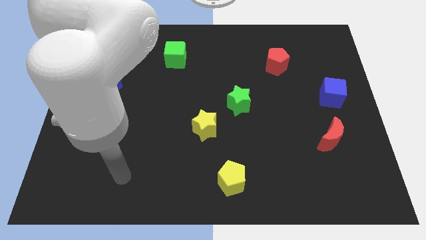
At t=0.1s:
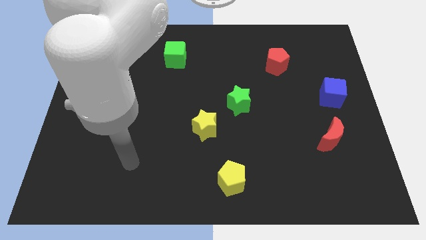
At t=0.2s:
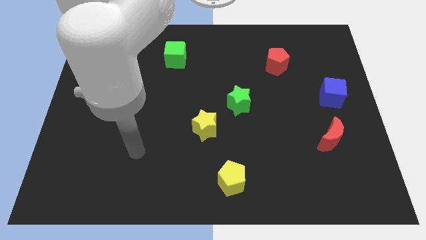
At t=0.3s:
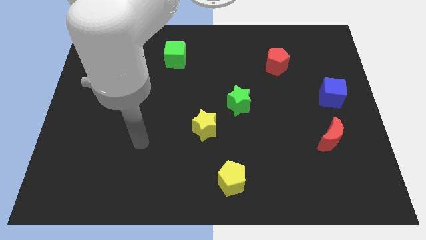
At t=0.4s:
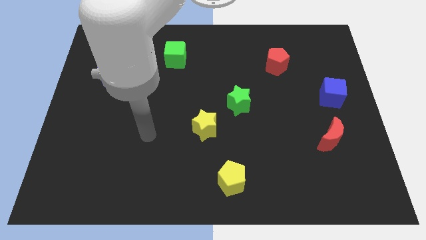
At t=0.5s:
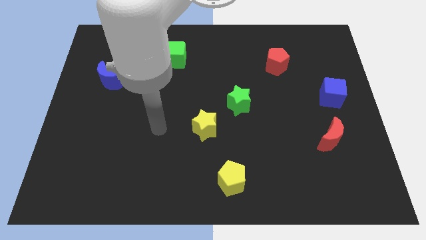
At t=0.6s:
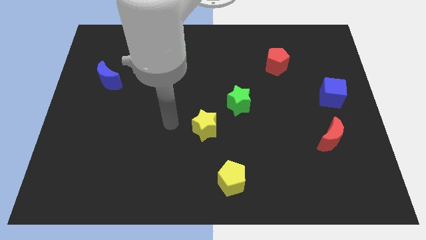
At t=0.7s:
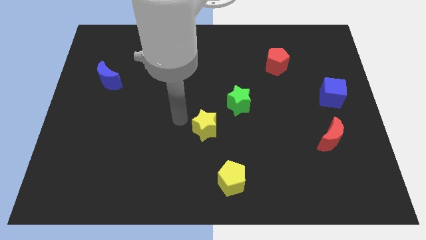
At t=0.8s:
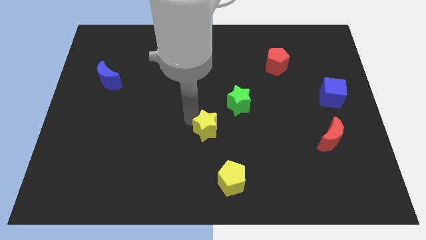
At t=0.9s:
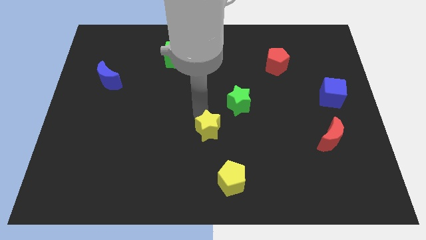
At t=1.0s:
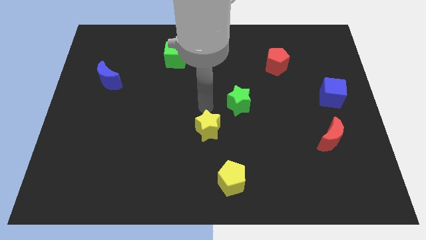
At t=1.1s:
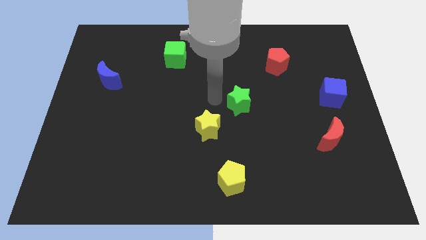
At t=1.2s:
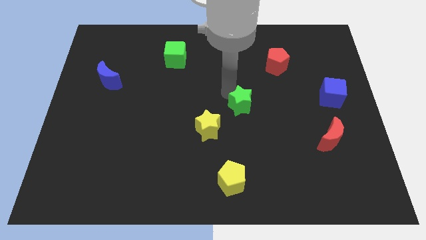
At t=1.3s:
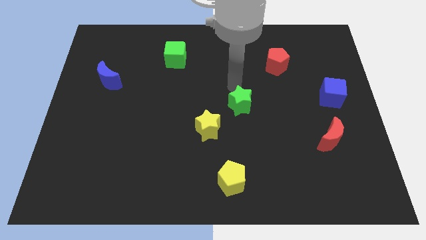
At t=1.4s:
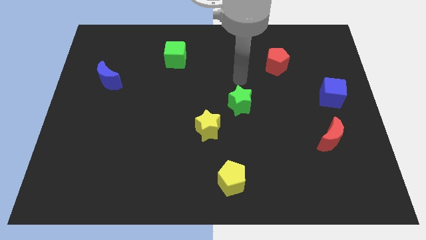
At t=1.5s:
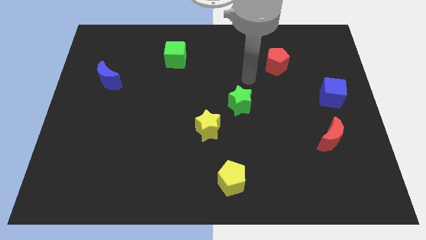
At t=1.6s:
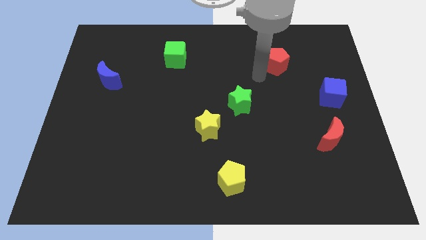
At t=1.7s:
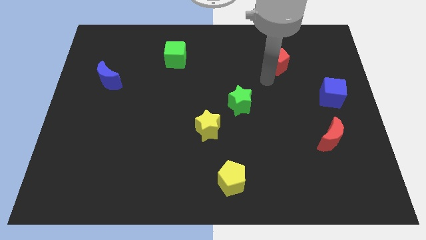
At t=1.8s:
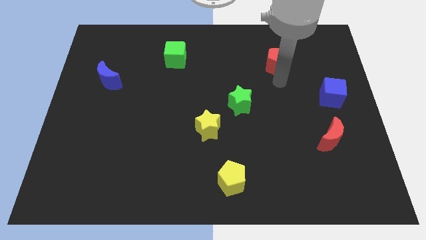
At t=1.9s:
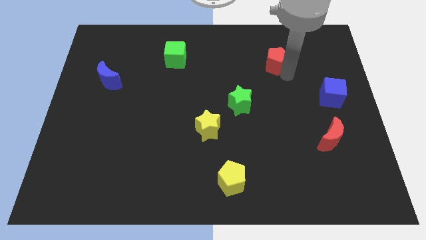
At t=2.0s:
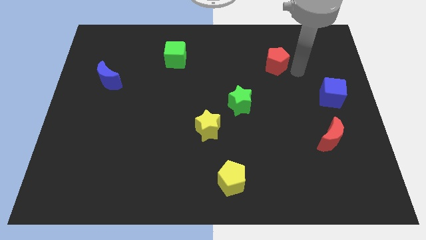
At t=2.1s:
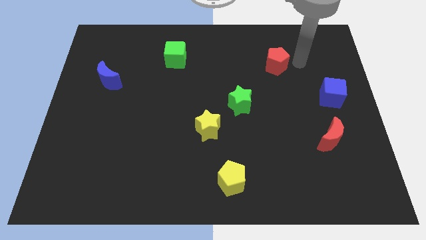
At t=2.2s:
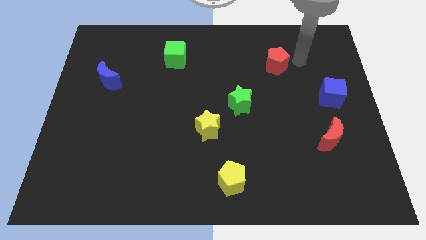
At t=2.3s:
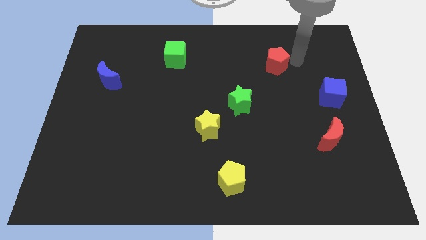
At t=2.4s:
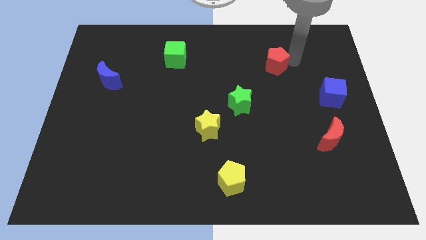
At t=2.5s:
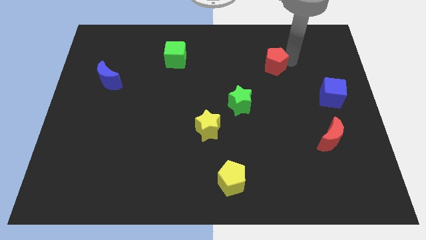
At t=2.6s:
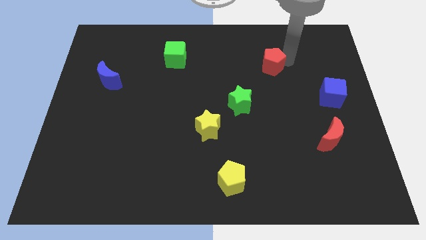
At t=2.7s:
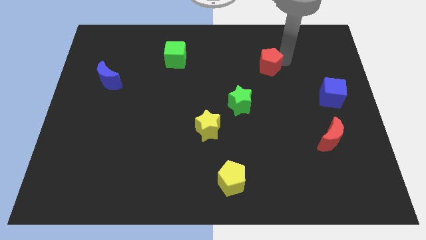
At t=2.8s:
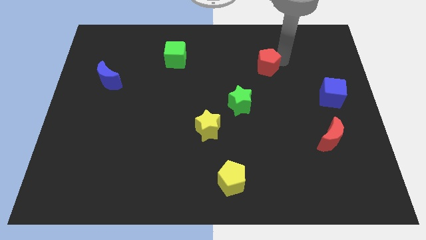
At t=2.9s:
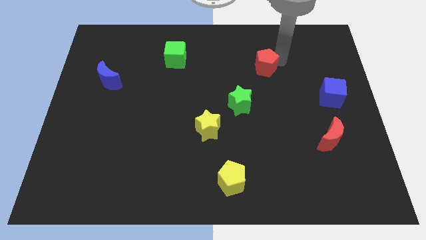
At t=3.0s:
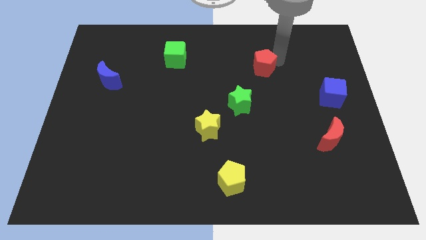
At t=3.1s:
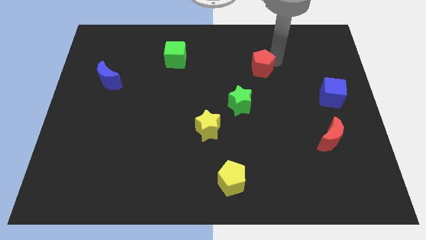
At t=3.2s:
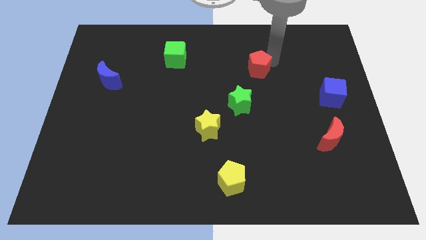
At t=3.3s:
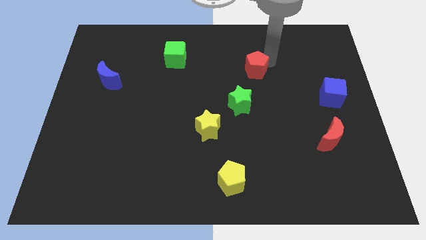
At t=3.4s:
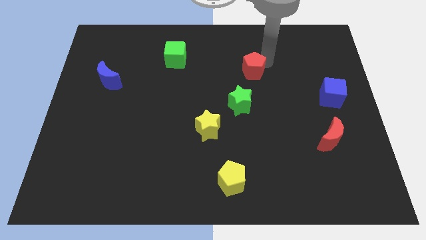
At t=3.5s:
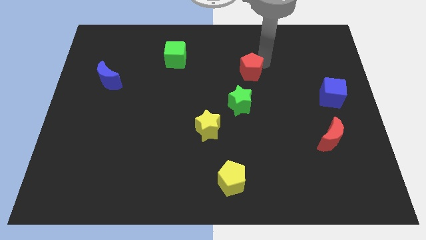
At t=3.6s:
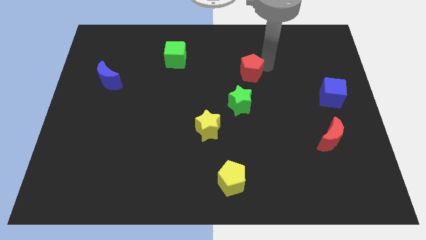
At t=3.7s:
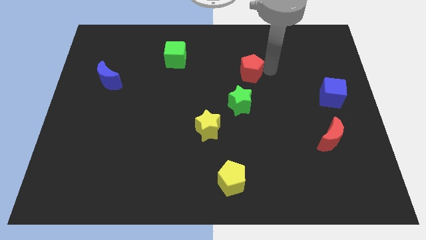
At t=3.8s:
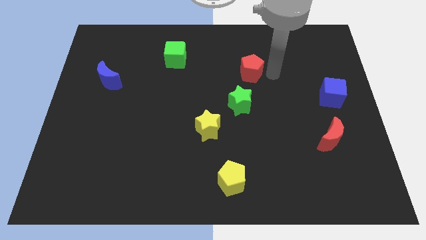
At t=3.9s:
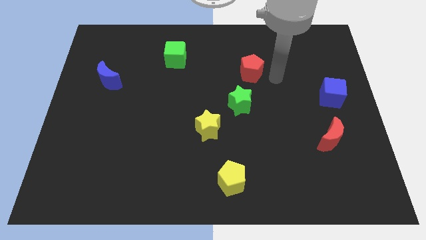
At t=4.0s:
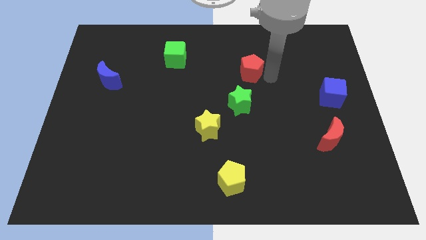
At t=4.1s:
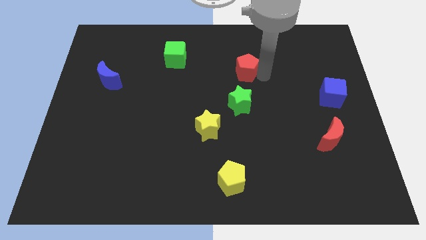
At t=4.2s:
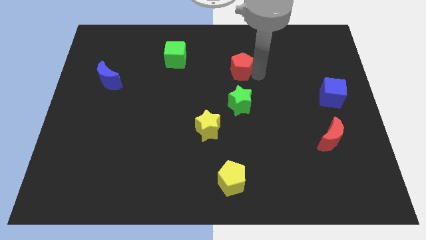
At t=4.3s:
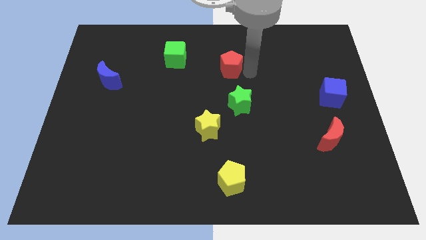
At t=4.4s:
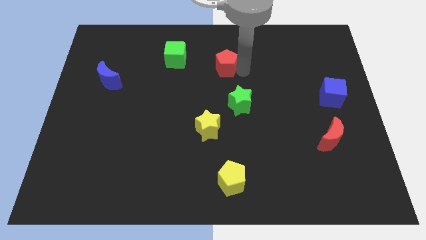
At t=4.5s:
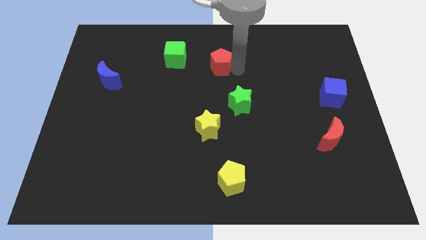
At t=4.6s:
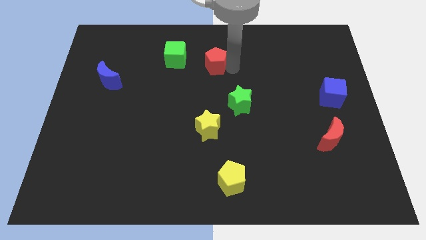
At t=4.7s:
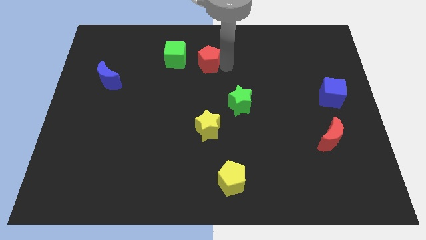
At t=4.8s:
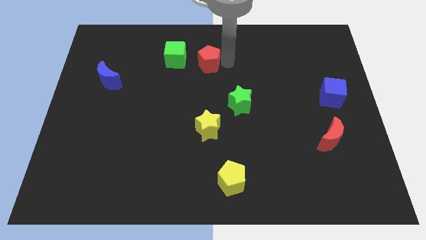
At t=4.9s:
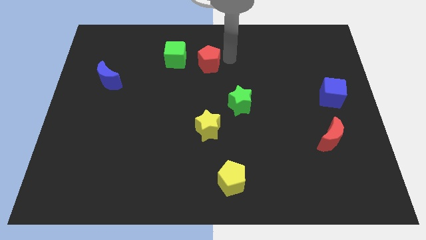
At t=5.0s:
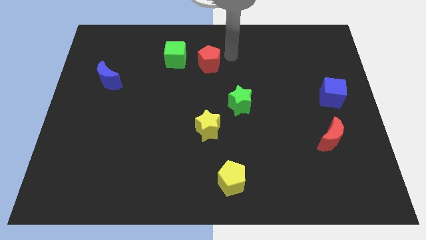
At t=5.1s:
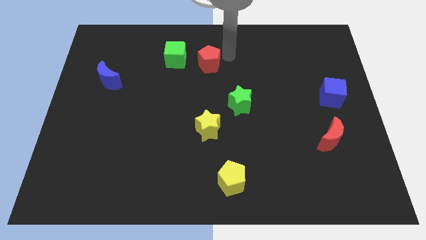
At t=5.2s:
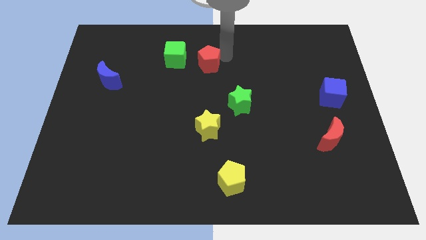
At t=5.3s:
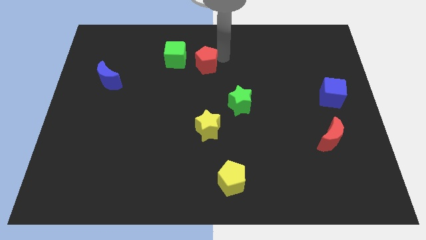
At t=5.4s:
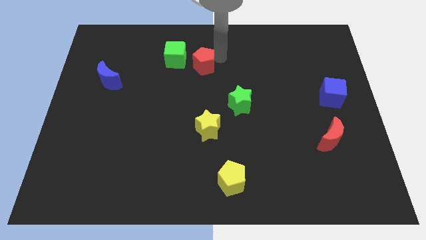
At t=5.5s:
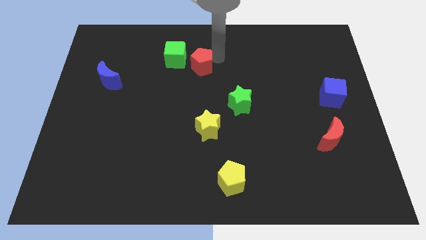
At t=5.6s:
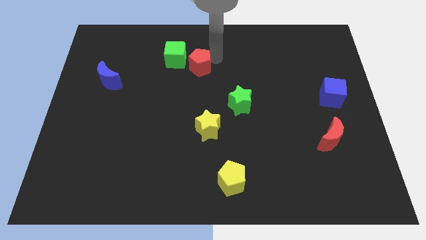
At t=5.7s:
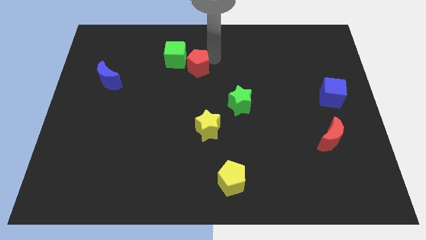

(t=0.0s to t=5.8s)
push the red pentagon to the left

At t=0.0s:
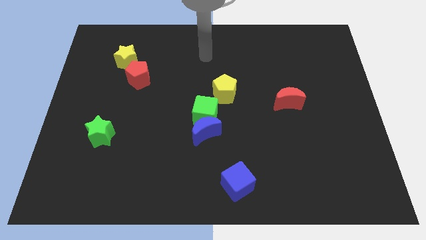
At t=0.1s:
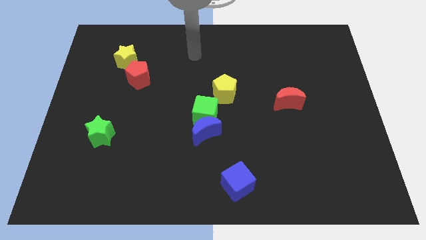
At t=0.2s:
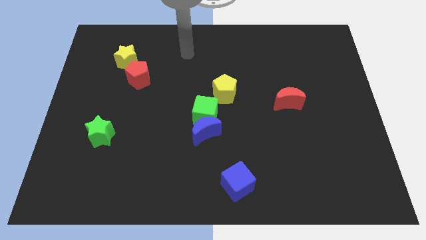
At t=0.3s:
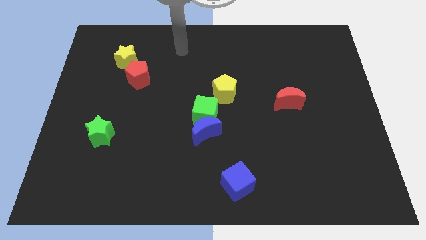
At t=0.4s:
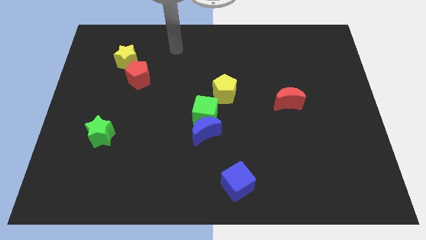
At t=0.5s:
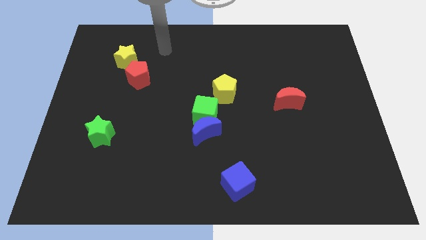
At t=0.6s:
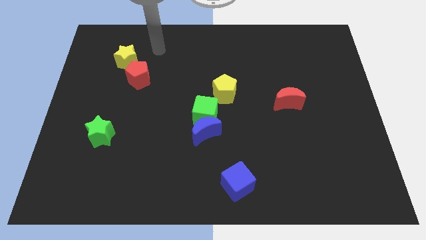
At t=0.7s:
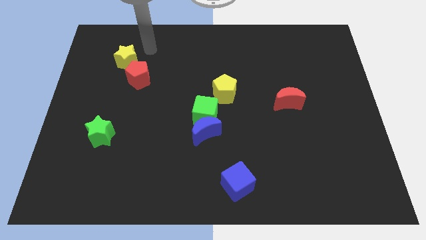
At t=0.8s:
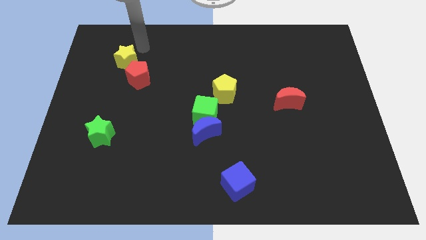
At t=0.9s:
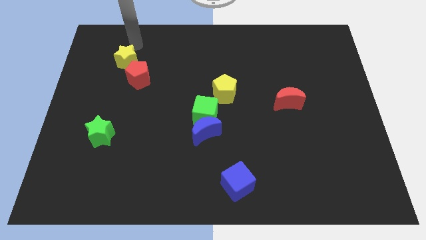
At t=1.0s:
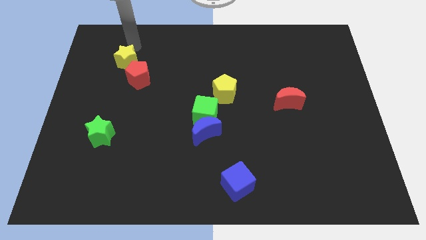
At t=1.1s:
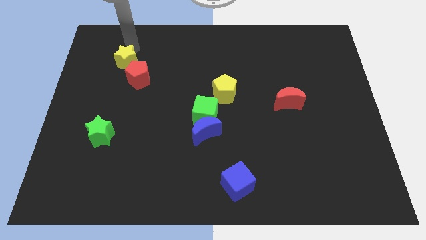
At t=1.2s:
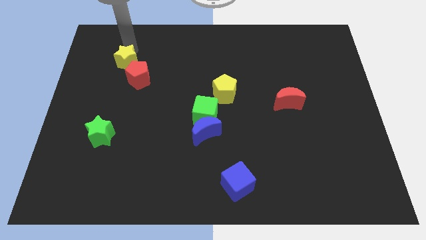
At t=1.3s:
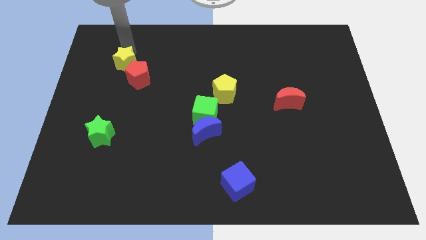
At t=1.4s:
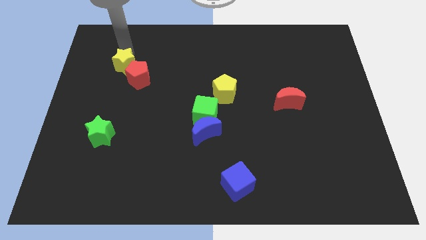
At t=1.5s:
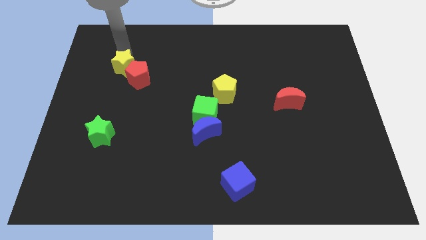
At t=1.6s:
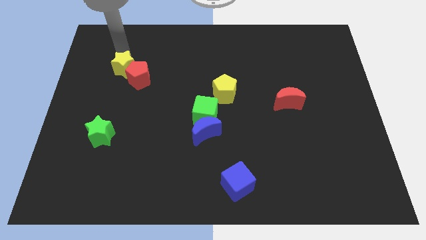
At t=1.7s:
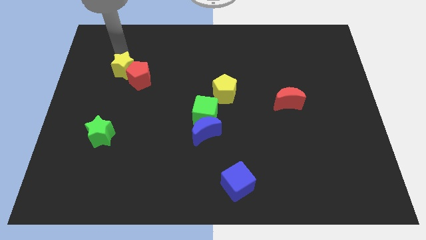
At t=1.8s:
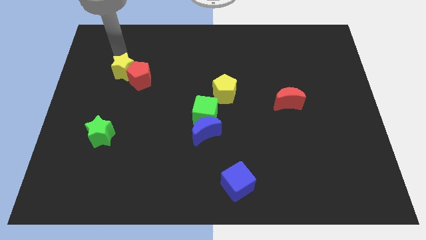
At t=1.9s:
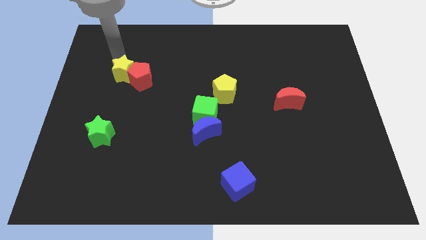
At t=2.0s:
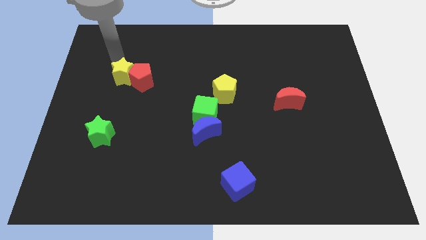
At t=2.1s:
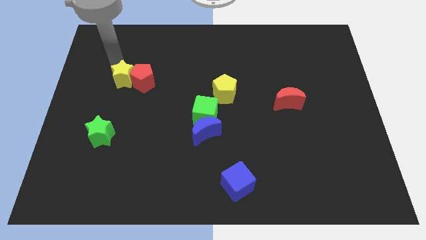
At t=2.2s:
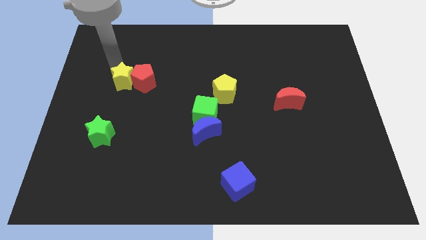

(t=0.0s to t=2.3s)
slide the yellow star a bit down
